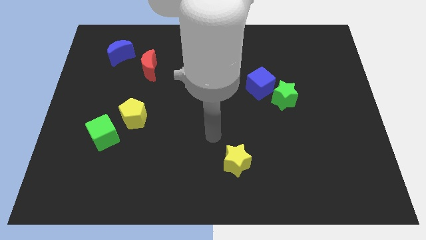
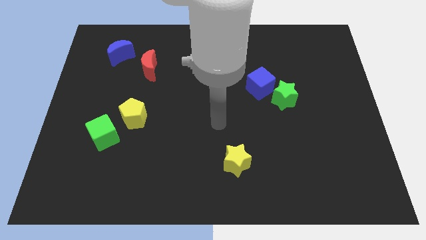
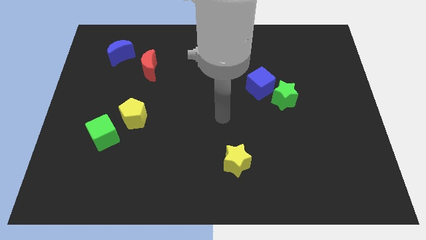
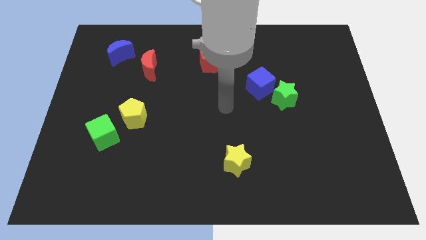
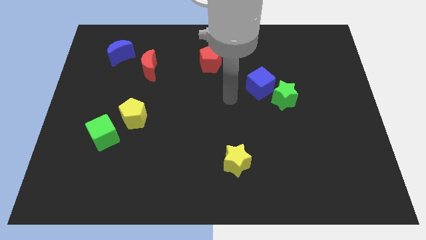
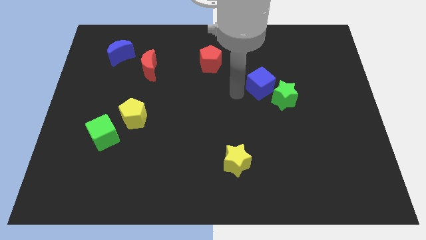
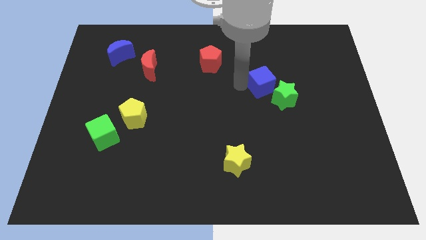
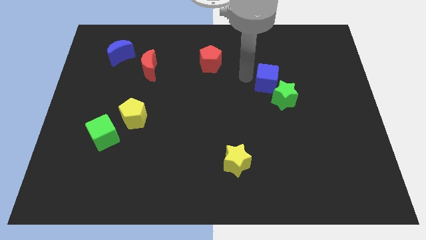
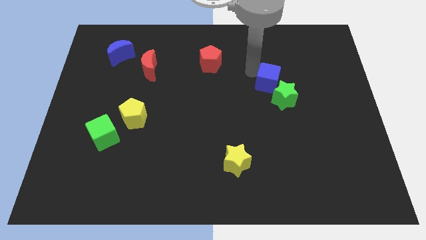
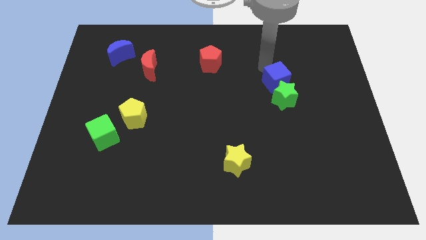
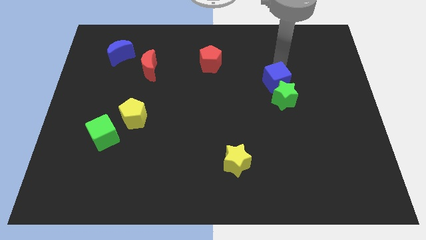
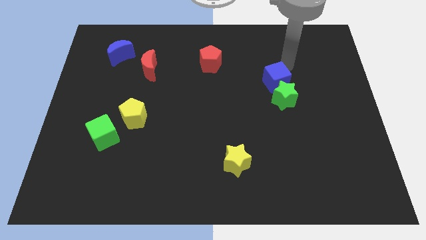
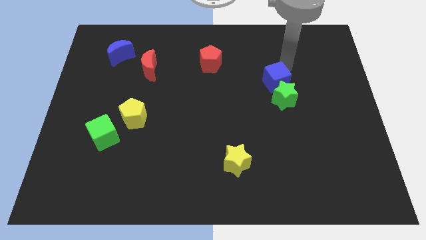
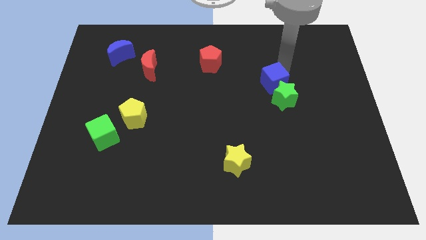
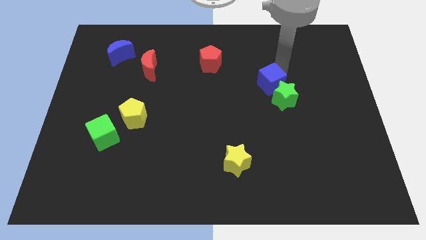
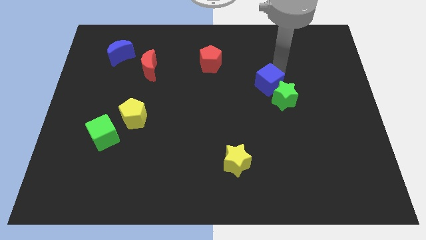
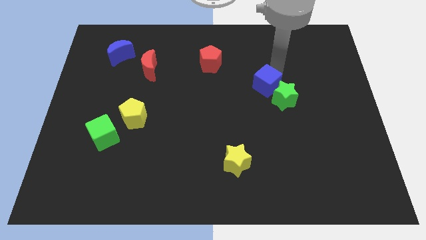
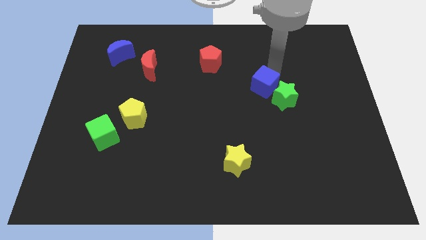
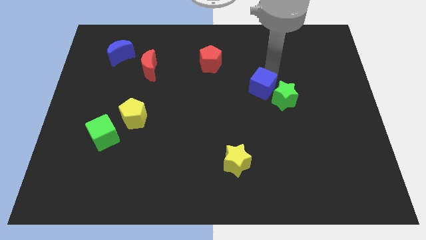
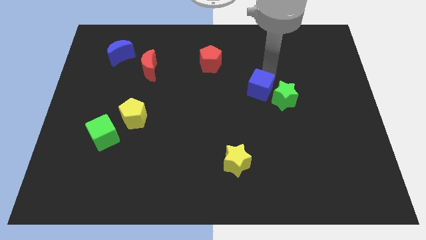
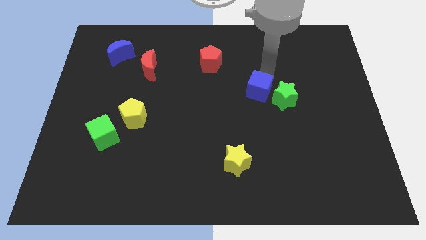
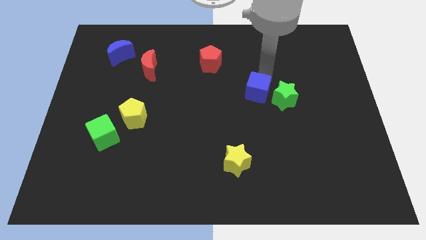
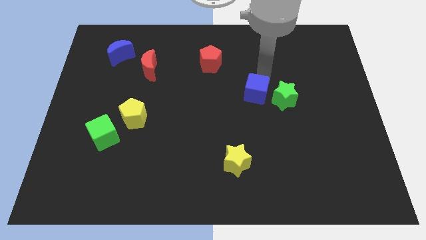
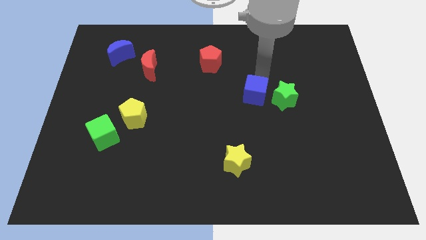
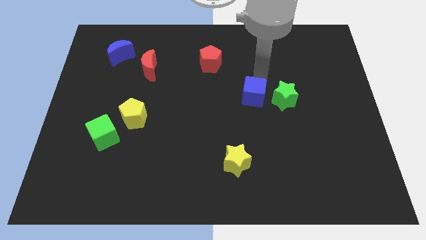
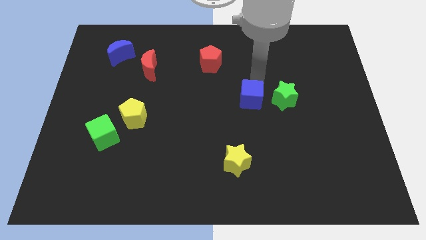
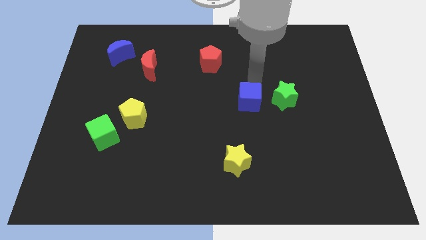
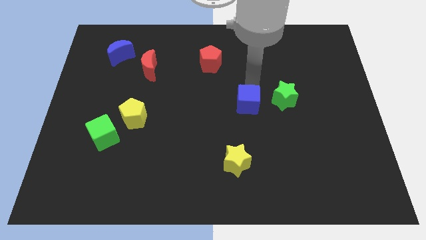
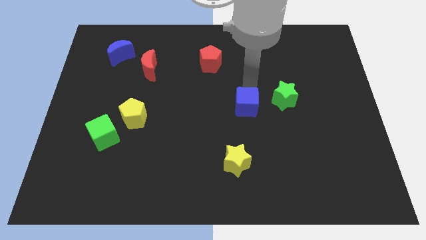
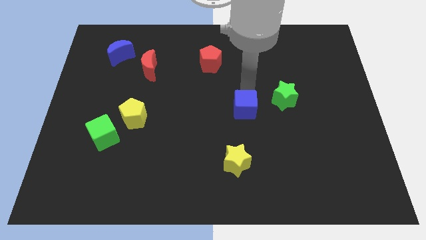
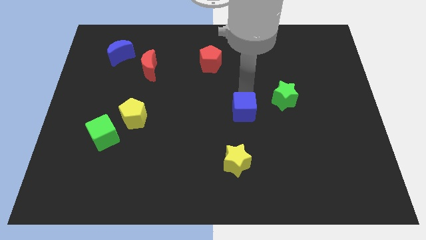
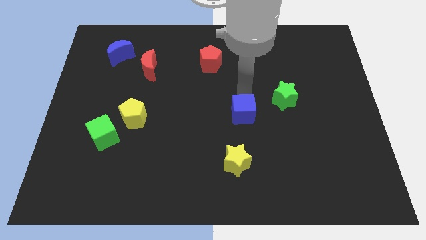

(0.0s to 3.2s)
slide the blue cube slightly downwards

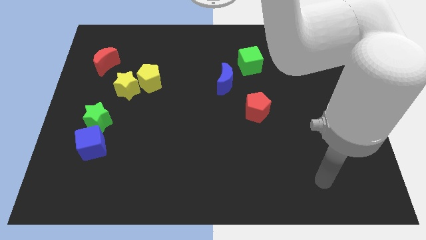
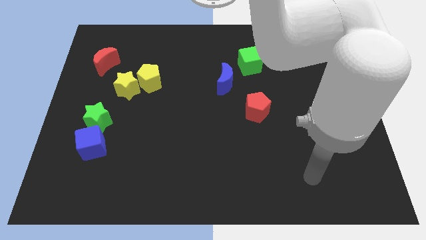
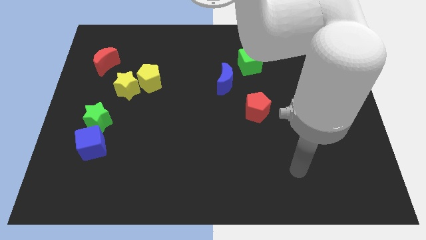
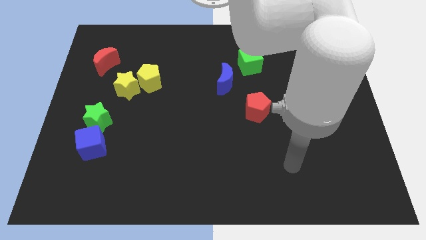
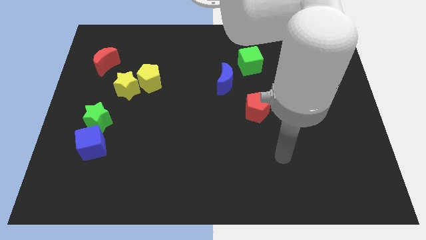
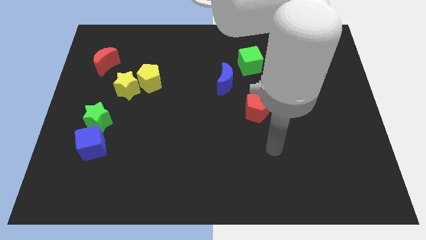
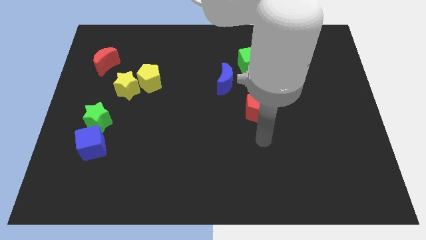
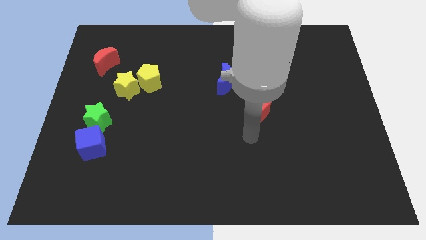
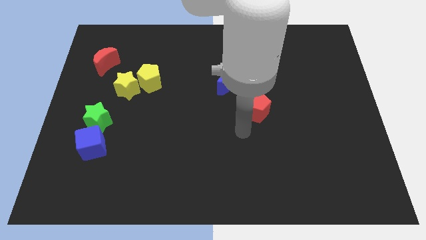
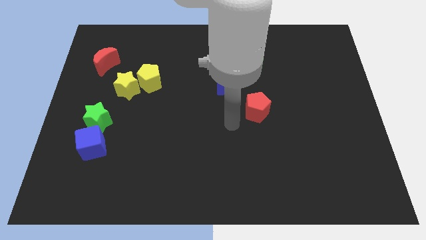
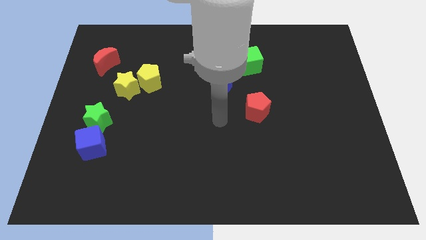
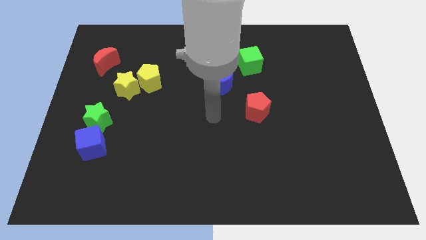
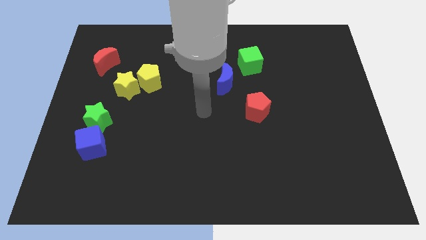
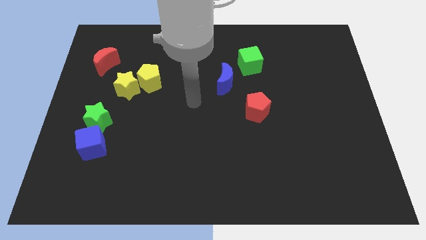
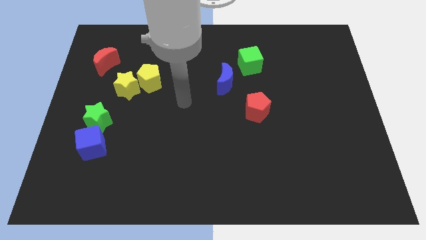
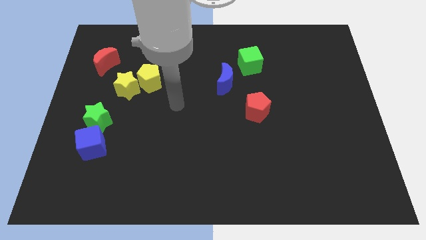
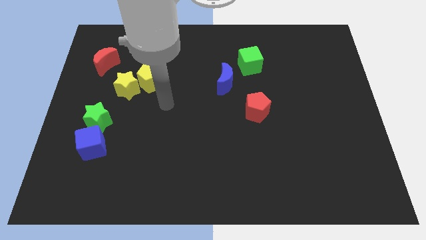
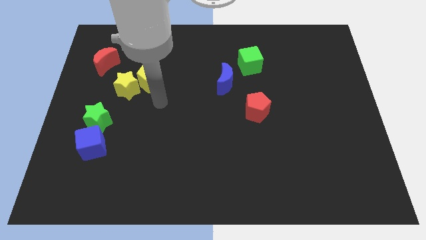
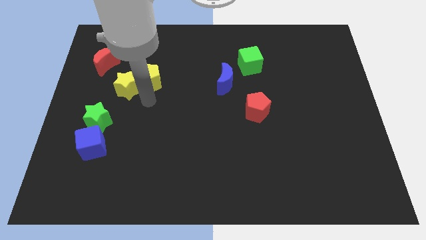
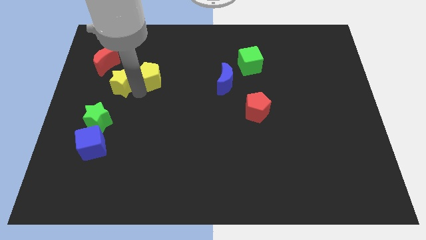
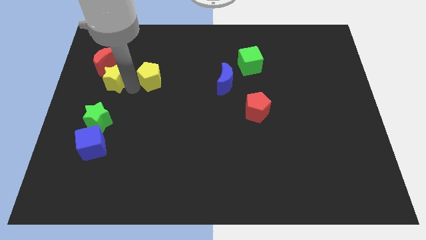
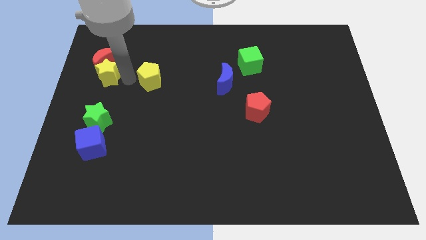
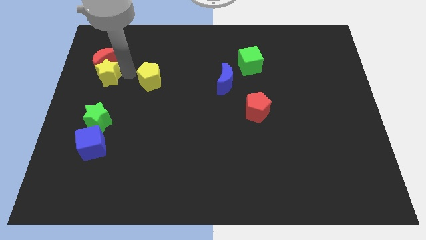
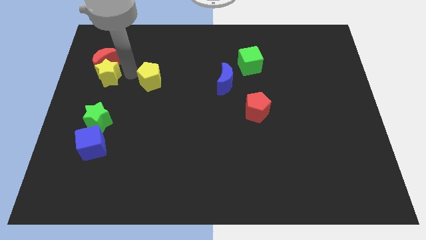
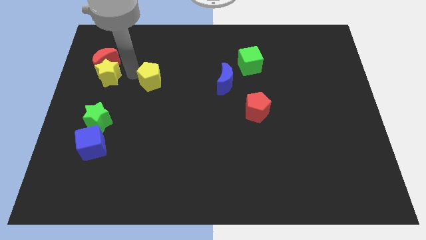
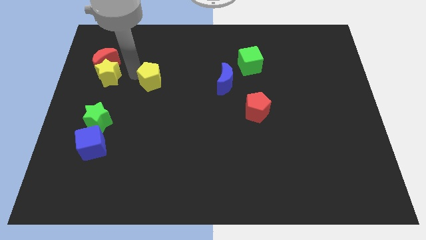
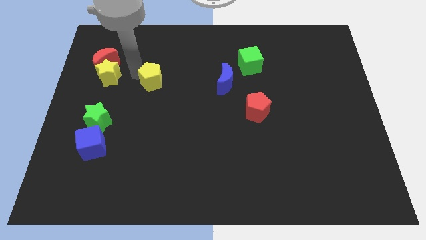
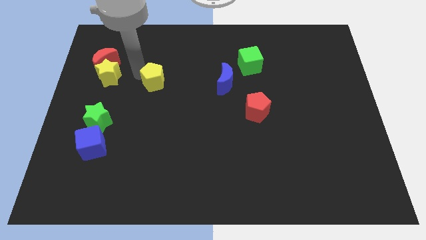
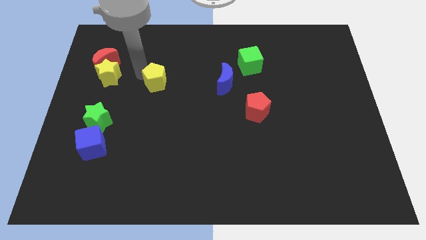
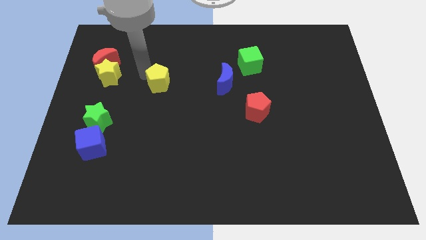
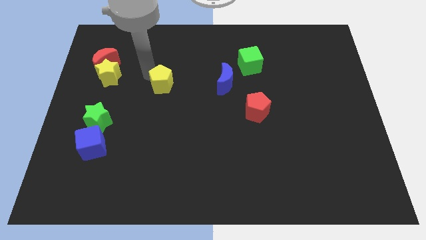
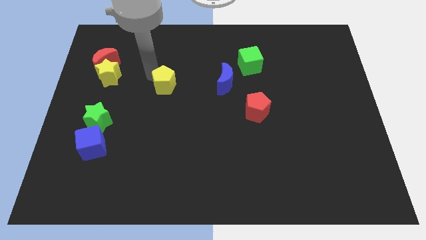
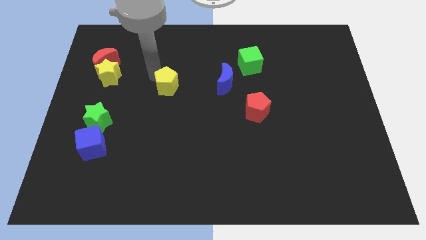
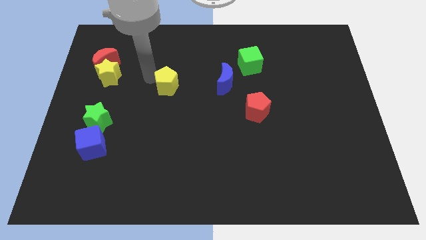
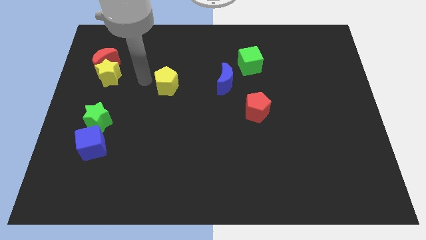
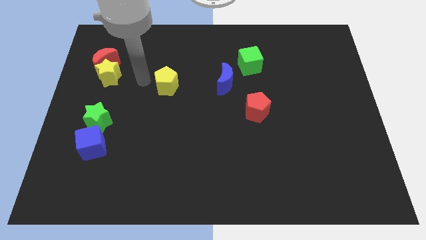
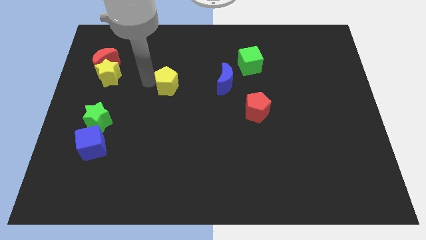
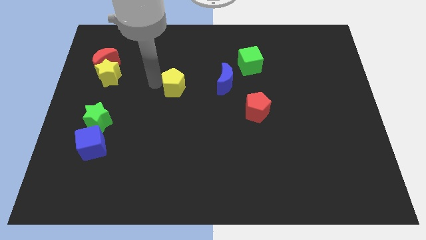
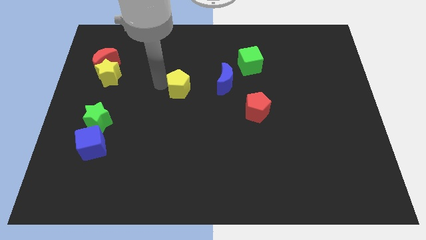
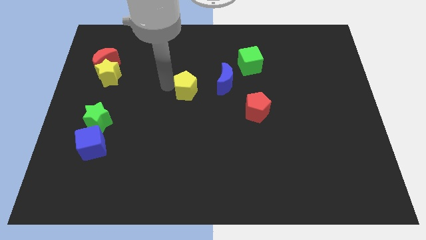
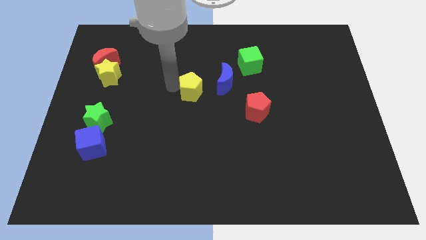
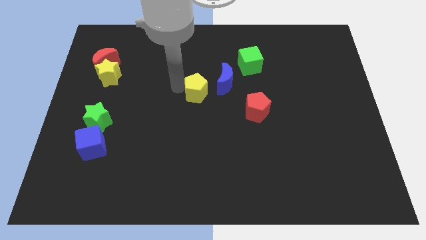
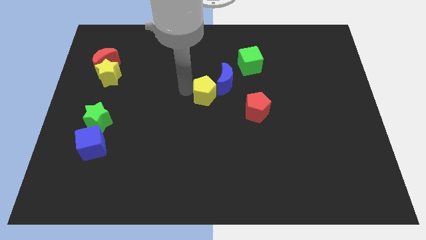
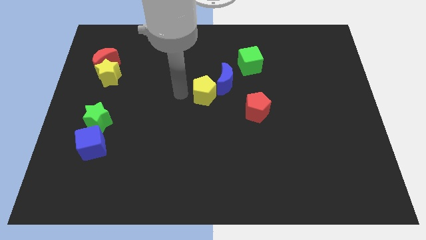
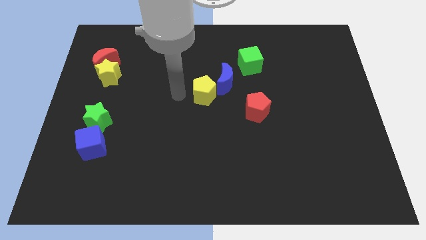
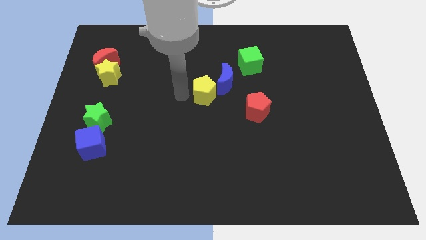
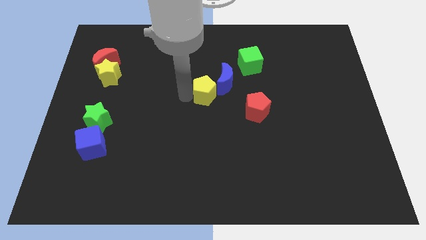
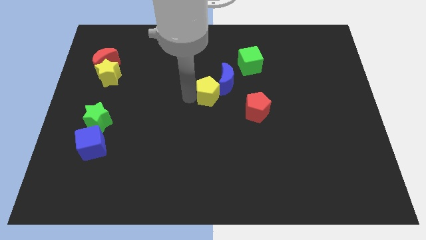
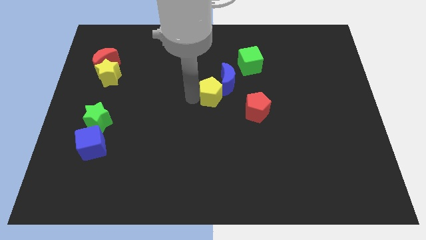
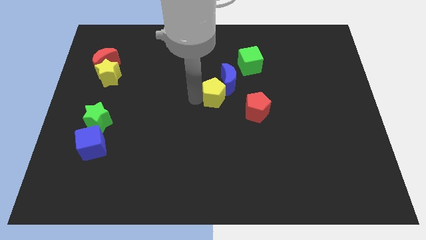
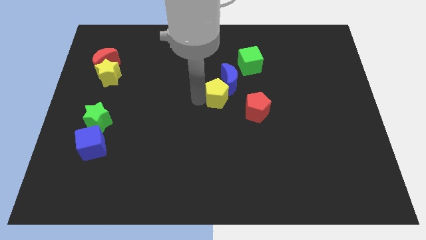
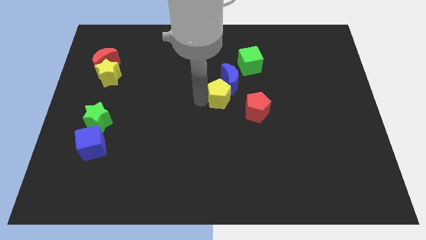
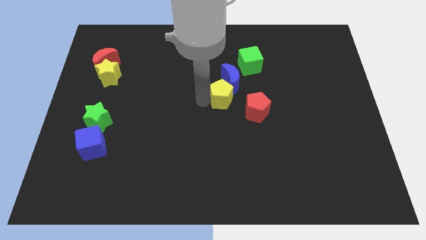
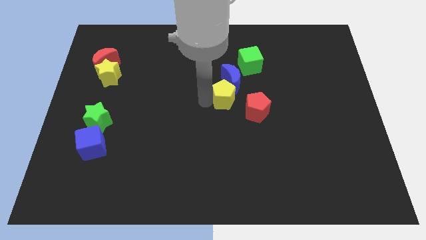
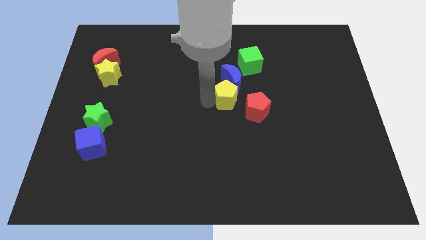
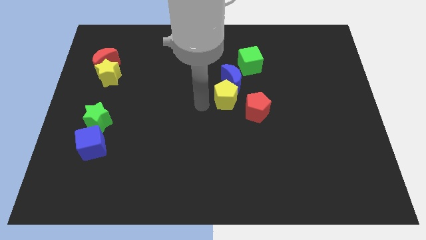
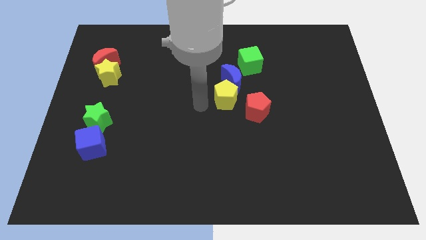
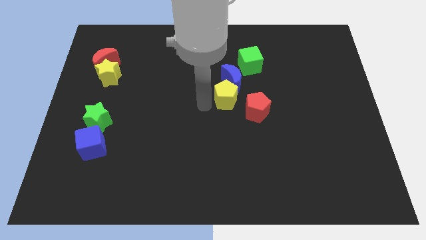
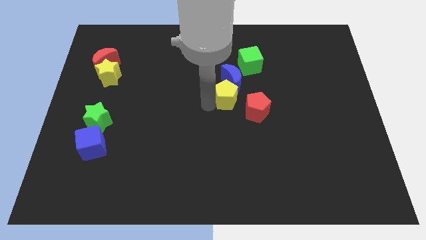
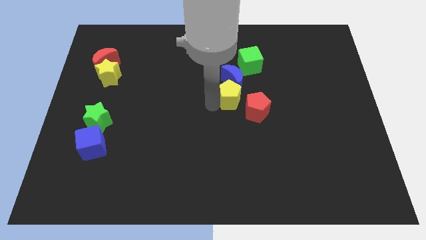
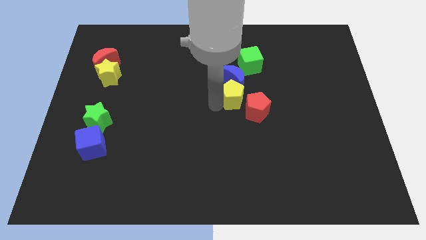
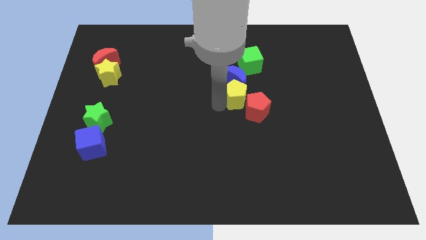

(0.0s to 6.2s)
push the yellow pentagon right
